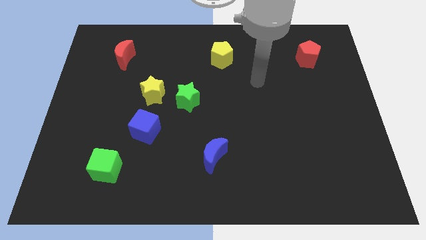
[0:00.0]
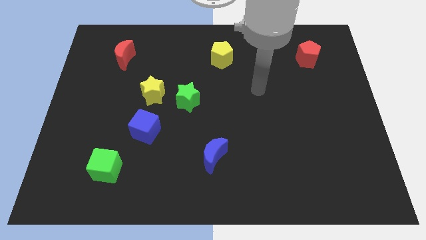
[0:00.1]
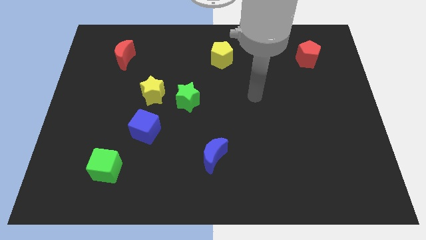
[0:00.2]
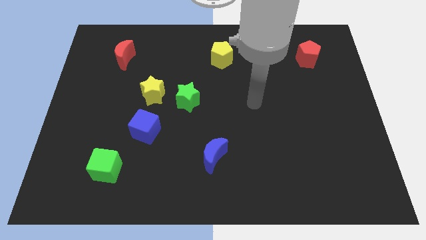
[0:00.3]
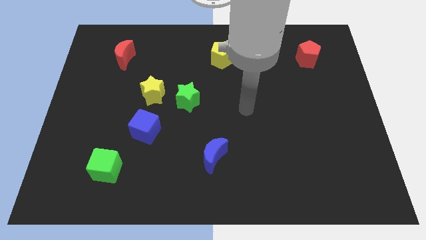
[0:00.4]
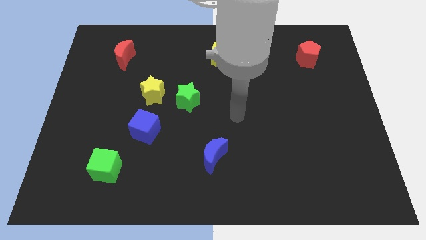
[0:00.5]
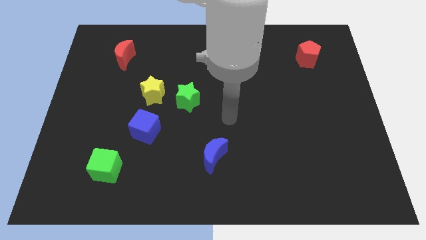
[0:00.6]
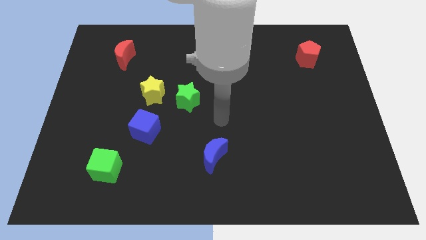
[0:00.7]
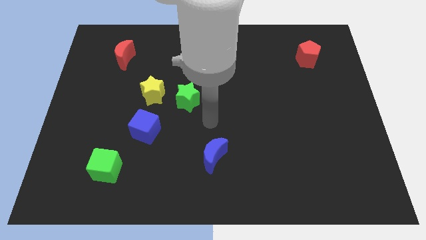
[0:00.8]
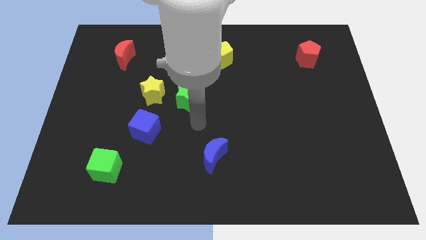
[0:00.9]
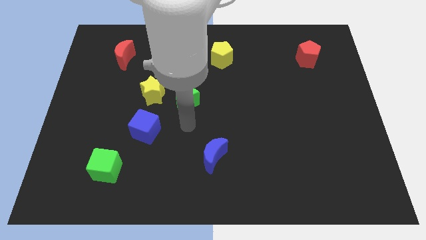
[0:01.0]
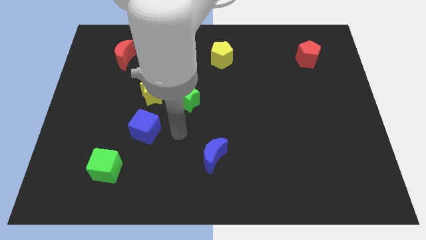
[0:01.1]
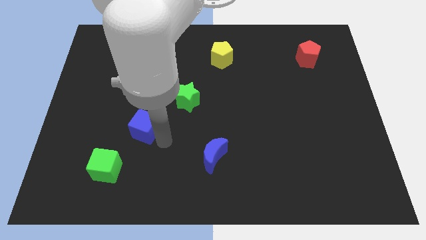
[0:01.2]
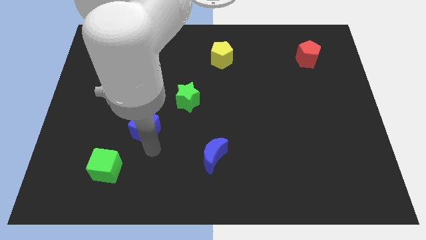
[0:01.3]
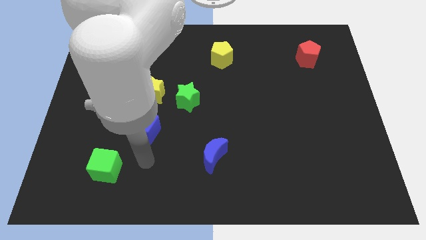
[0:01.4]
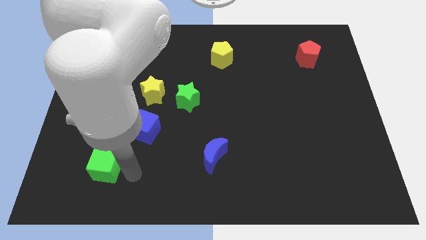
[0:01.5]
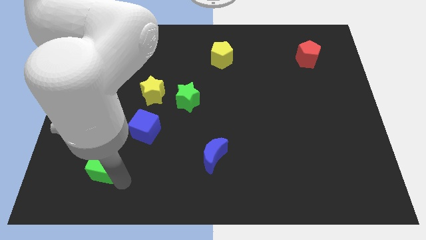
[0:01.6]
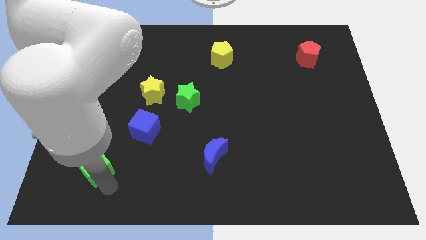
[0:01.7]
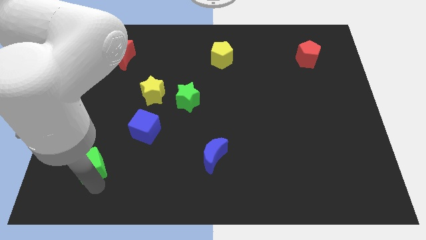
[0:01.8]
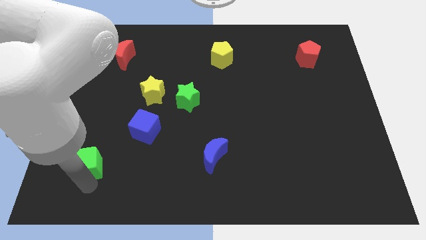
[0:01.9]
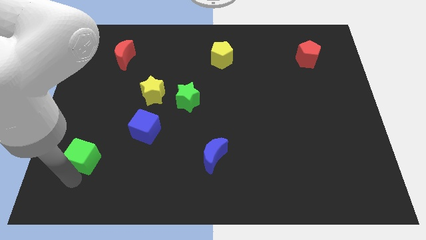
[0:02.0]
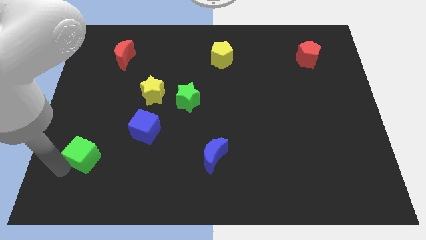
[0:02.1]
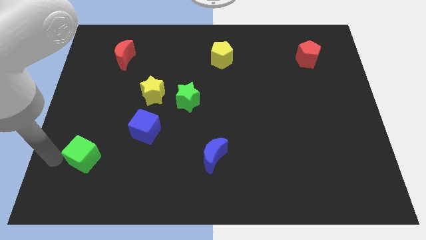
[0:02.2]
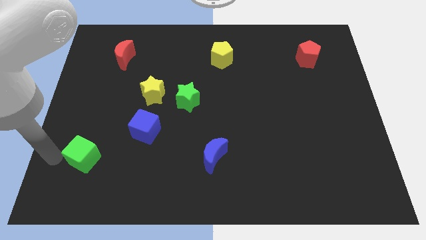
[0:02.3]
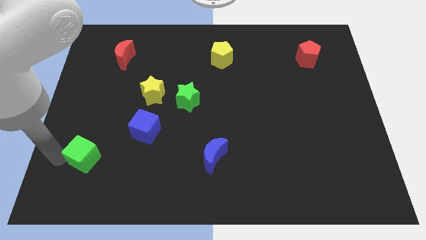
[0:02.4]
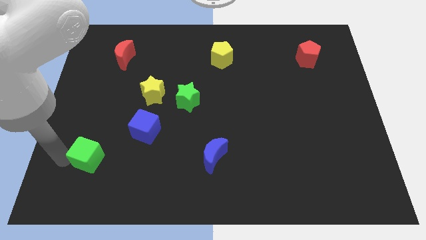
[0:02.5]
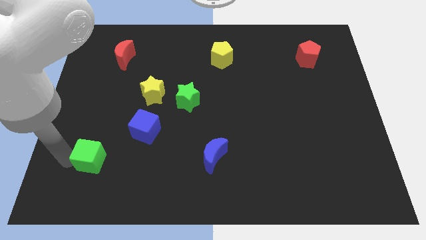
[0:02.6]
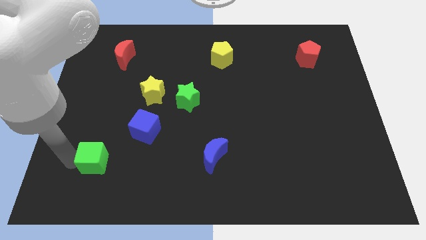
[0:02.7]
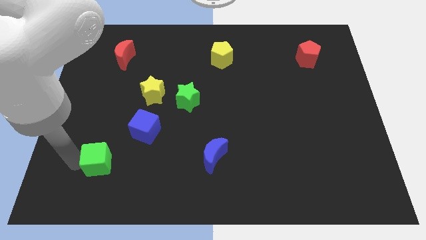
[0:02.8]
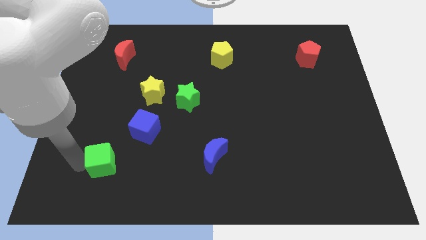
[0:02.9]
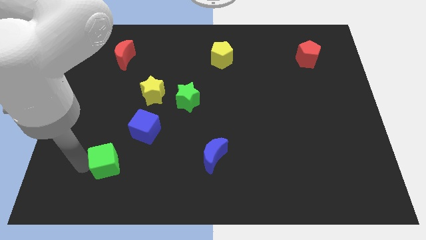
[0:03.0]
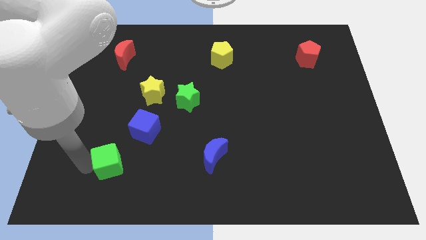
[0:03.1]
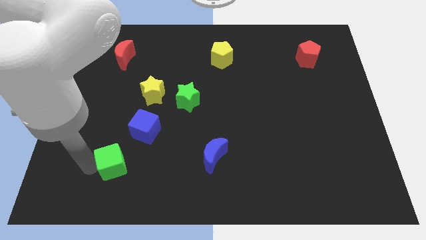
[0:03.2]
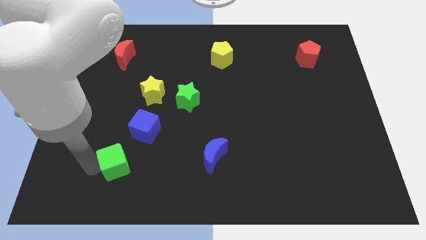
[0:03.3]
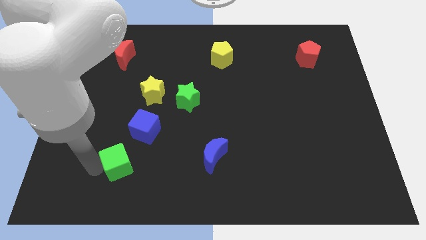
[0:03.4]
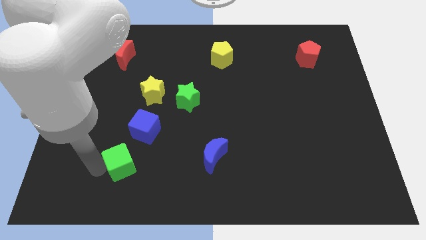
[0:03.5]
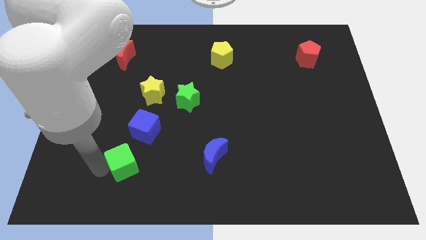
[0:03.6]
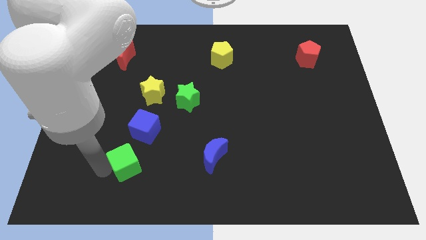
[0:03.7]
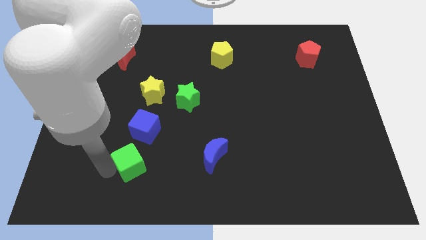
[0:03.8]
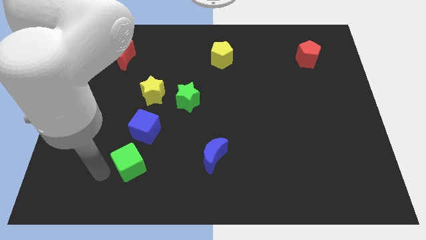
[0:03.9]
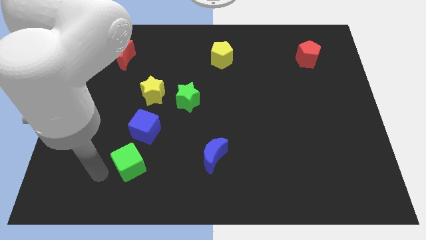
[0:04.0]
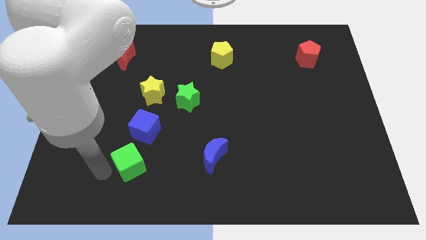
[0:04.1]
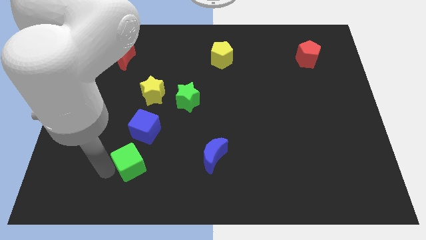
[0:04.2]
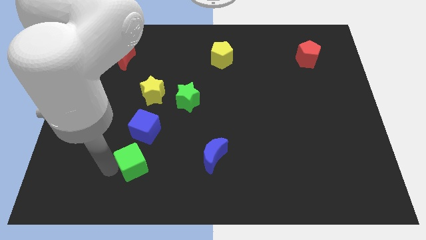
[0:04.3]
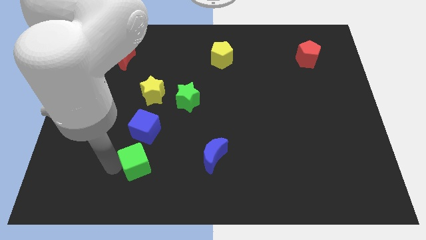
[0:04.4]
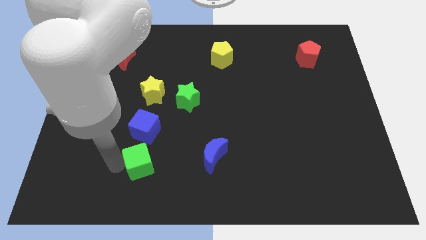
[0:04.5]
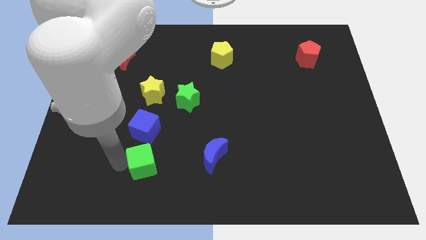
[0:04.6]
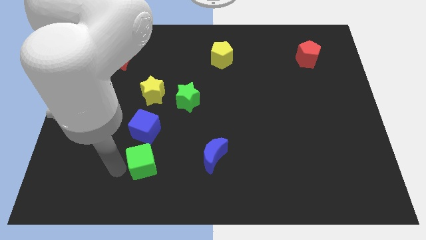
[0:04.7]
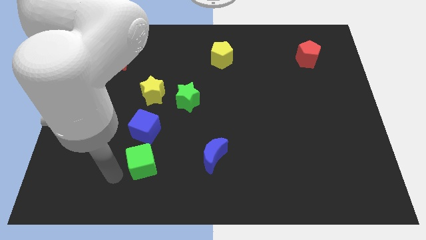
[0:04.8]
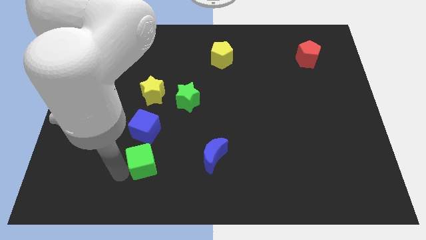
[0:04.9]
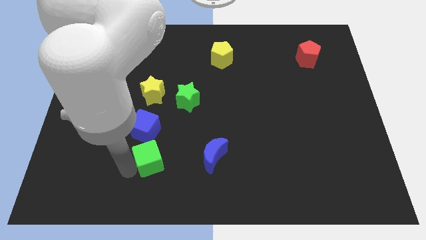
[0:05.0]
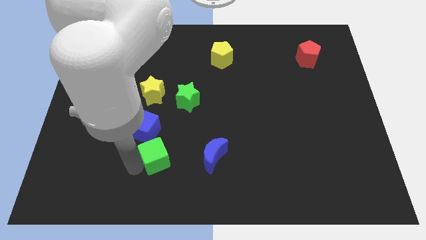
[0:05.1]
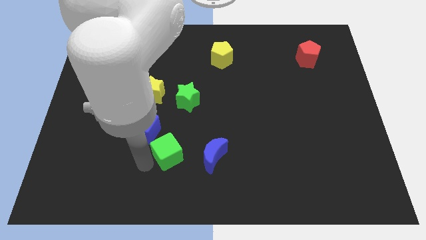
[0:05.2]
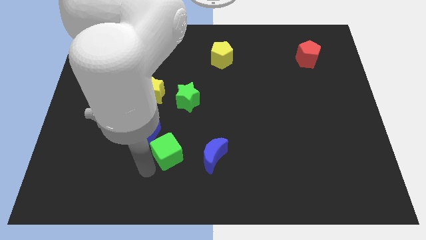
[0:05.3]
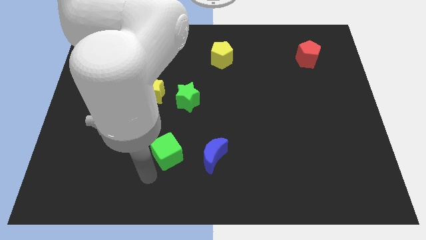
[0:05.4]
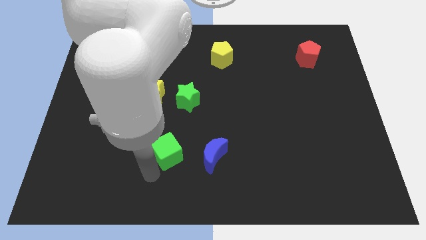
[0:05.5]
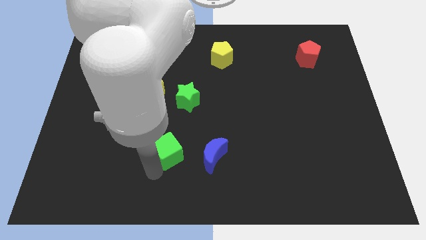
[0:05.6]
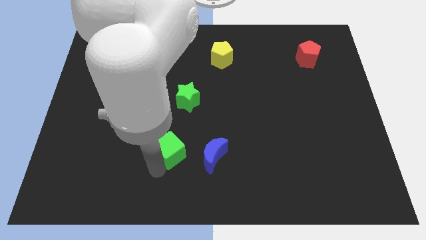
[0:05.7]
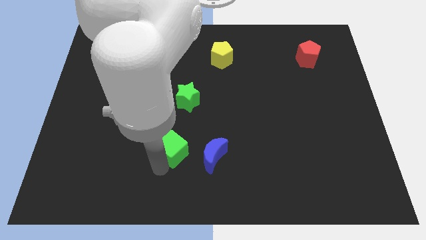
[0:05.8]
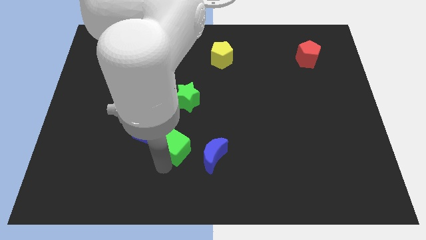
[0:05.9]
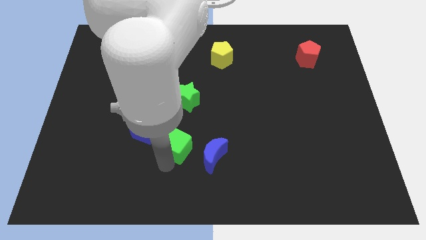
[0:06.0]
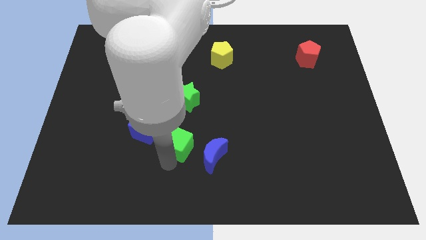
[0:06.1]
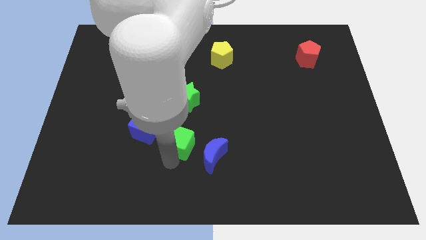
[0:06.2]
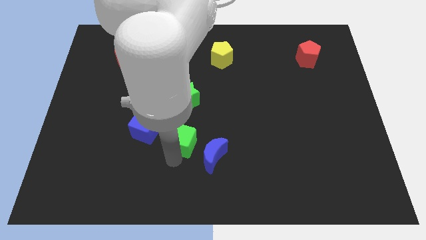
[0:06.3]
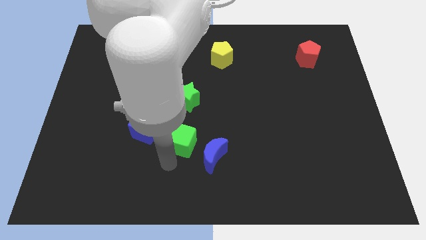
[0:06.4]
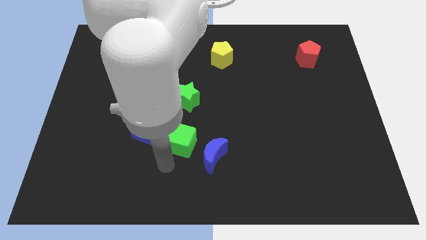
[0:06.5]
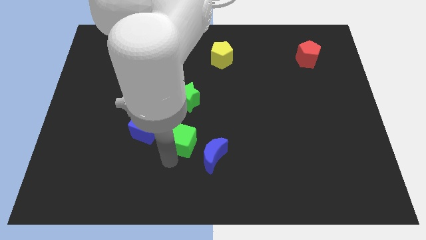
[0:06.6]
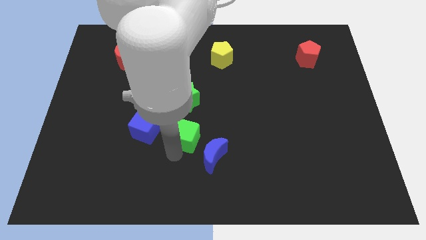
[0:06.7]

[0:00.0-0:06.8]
move the green cube to the middle

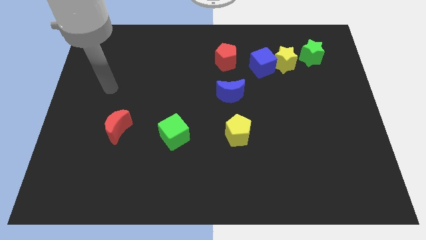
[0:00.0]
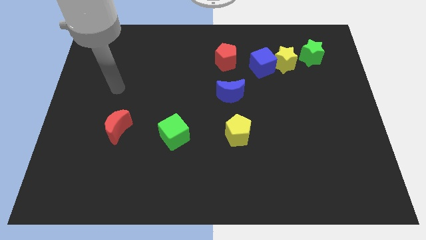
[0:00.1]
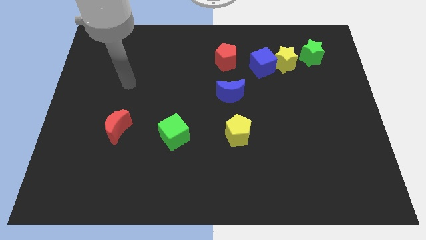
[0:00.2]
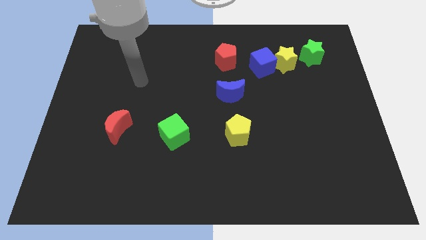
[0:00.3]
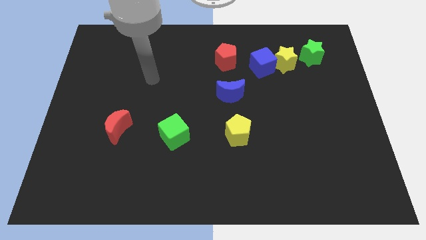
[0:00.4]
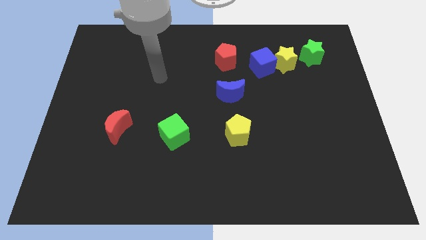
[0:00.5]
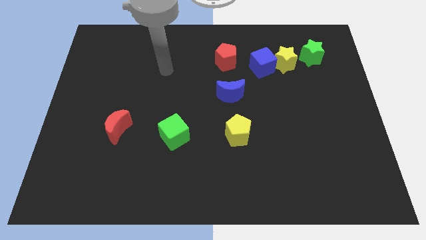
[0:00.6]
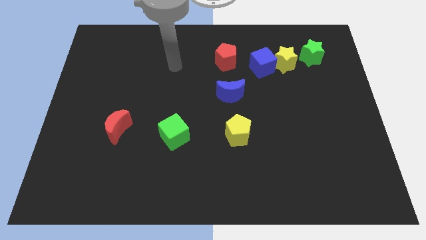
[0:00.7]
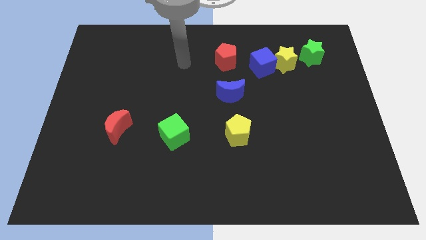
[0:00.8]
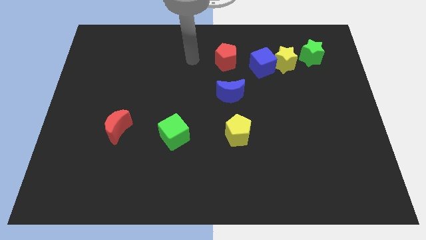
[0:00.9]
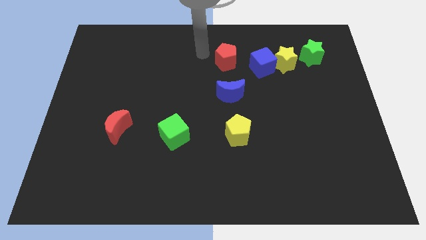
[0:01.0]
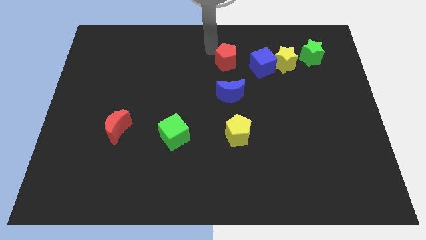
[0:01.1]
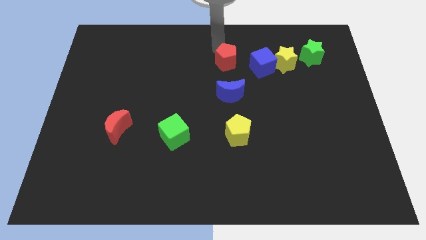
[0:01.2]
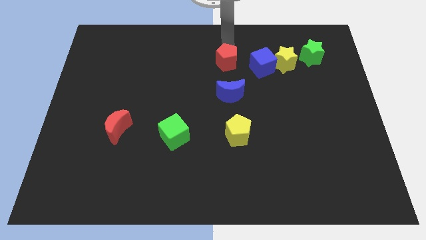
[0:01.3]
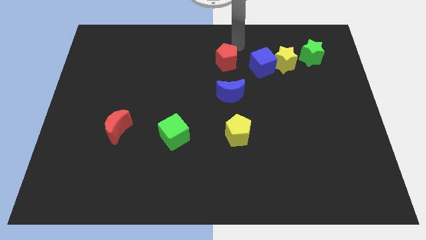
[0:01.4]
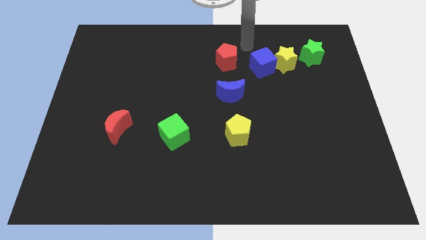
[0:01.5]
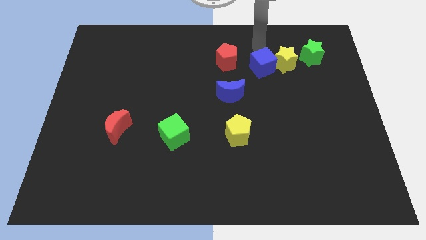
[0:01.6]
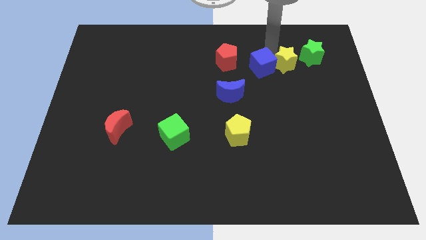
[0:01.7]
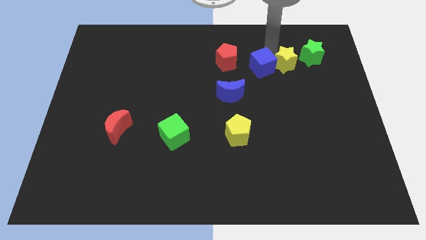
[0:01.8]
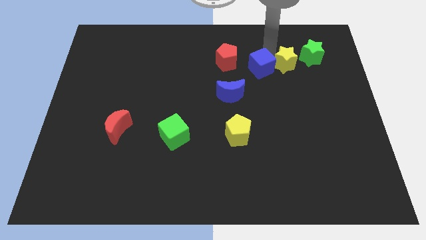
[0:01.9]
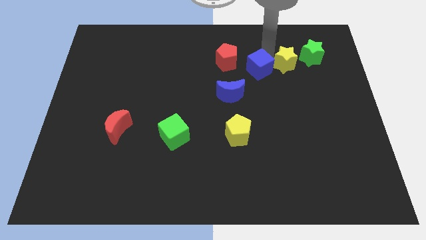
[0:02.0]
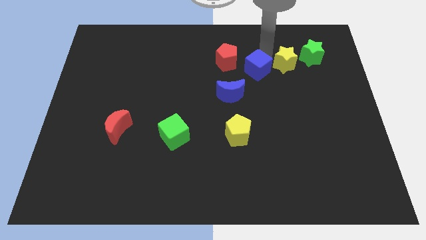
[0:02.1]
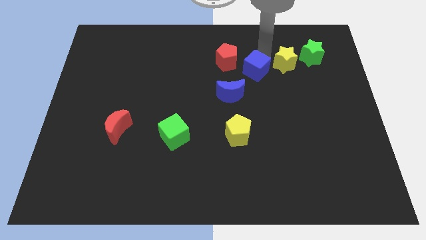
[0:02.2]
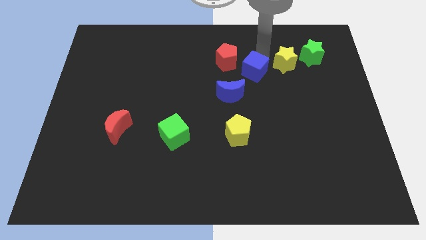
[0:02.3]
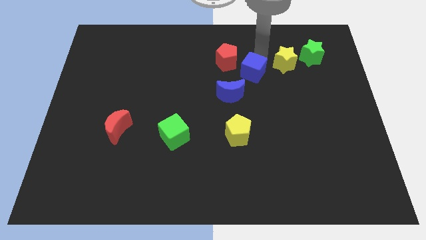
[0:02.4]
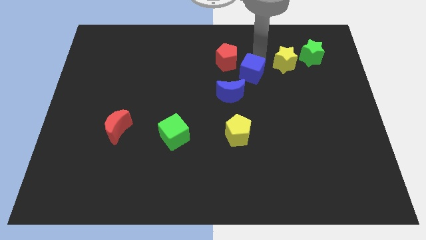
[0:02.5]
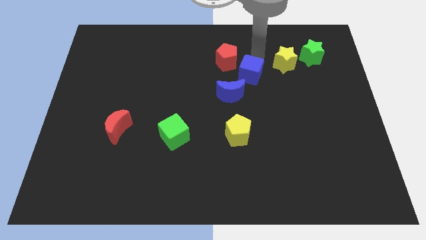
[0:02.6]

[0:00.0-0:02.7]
move the blue cube to the center
